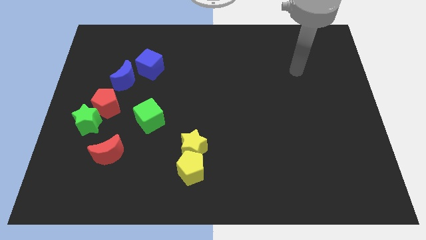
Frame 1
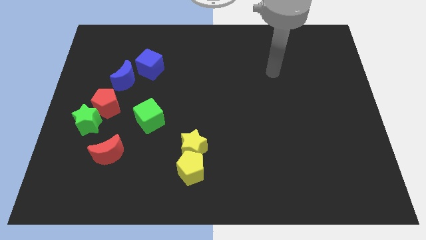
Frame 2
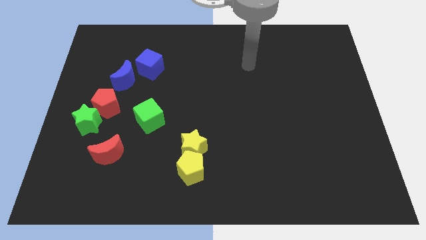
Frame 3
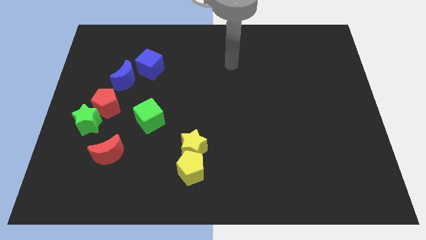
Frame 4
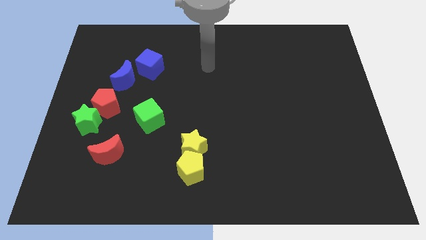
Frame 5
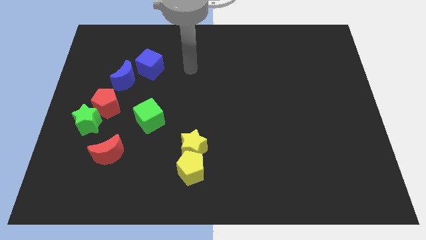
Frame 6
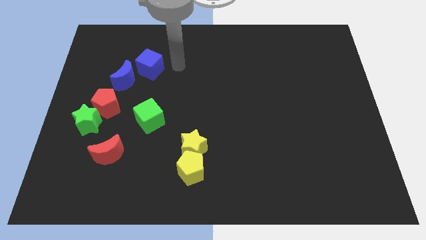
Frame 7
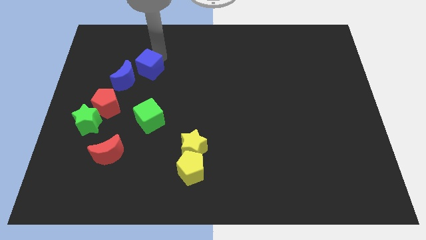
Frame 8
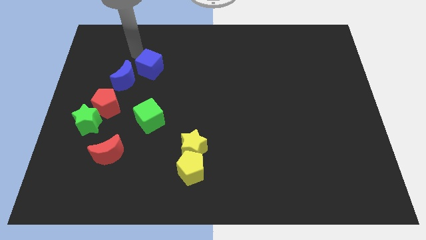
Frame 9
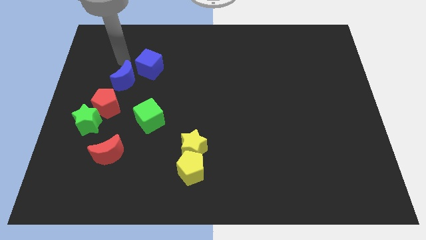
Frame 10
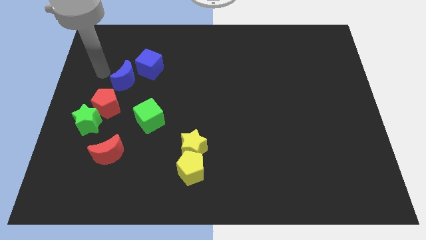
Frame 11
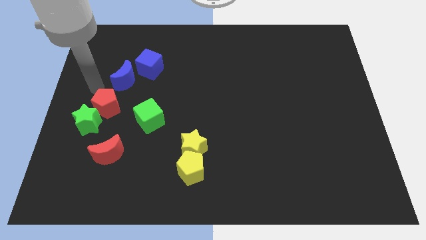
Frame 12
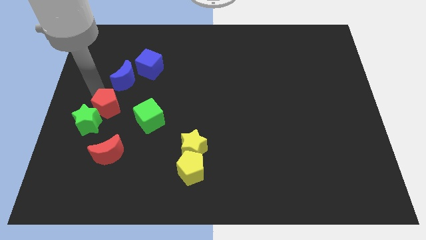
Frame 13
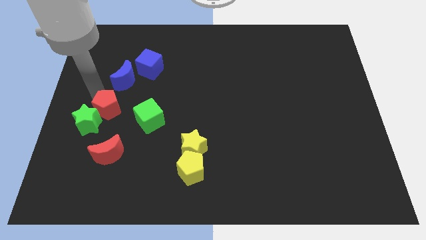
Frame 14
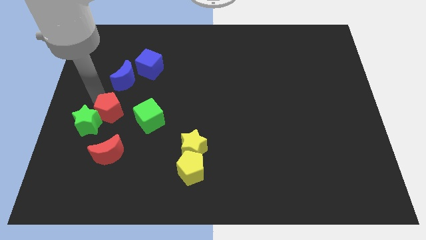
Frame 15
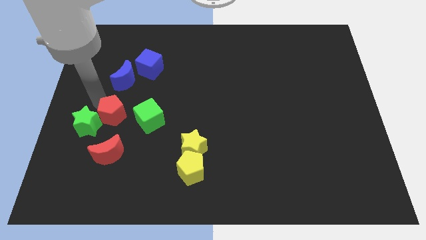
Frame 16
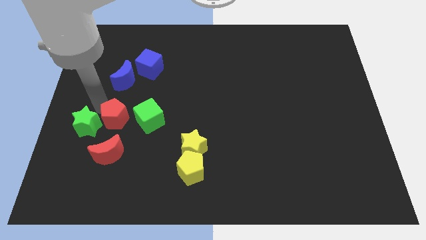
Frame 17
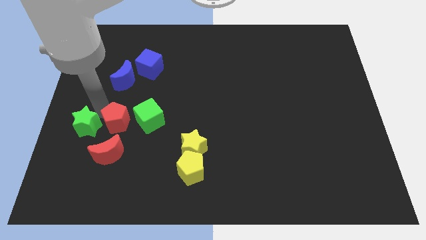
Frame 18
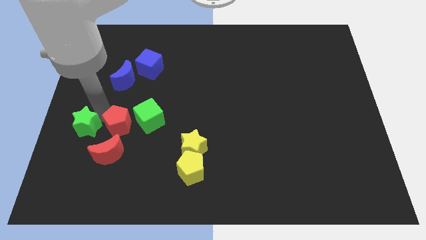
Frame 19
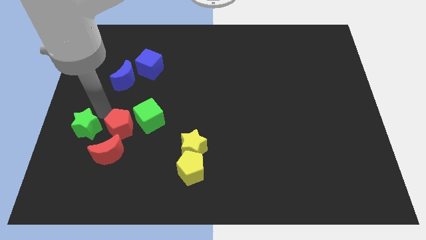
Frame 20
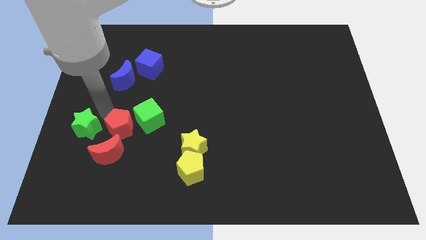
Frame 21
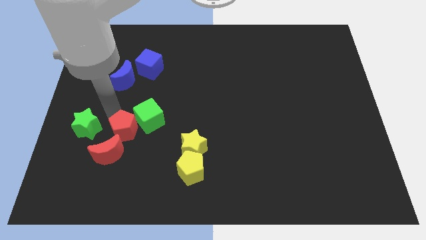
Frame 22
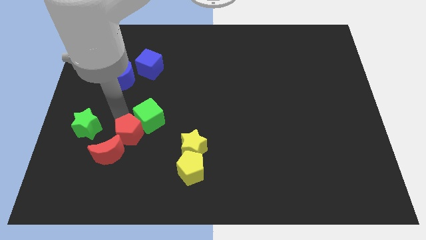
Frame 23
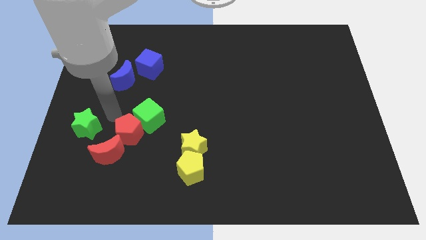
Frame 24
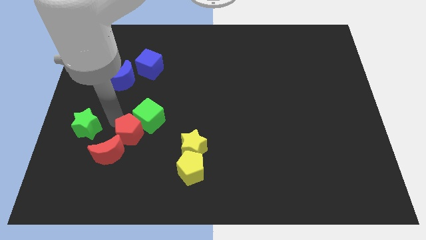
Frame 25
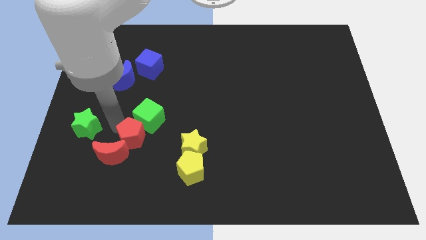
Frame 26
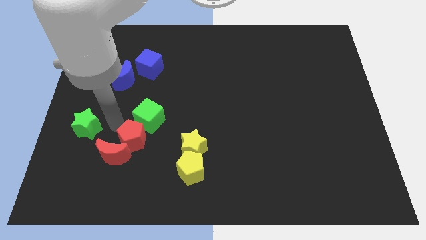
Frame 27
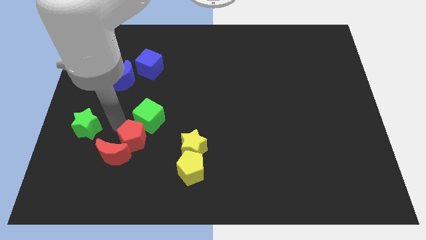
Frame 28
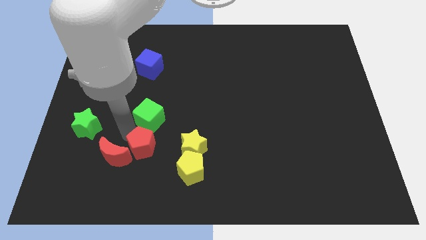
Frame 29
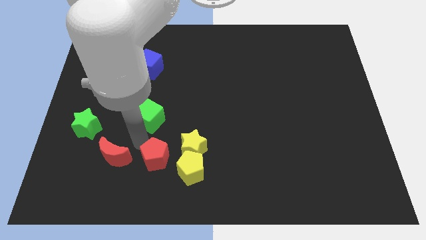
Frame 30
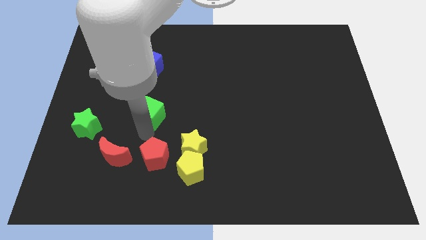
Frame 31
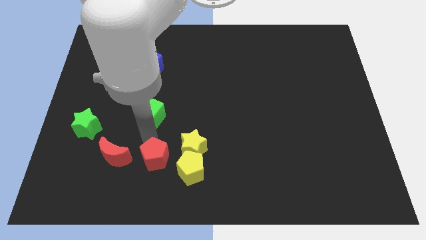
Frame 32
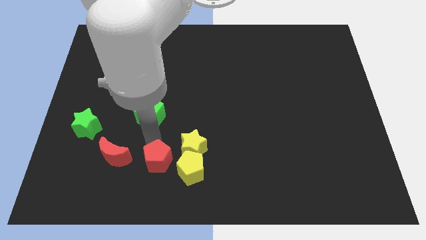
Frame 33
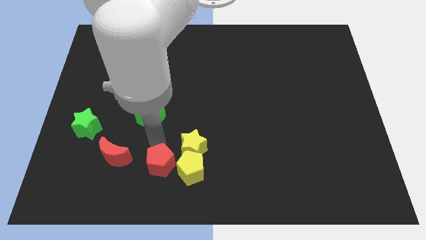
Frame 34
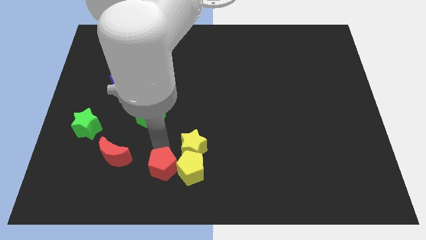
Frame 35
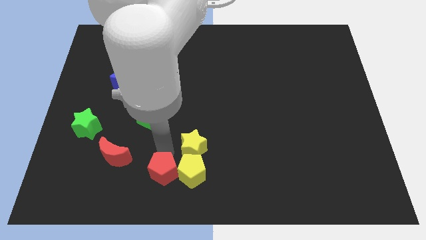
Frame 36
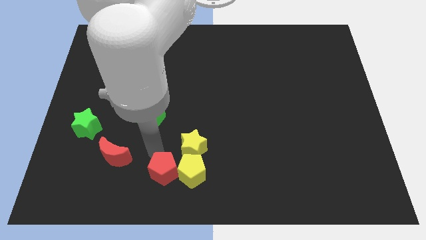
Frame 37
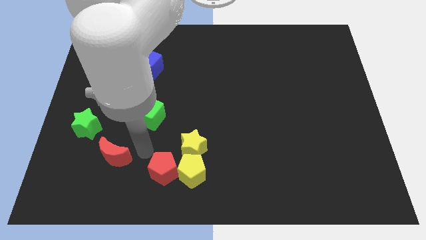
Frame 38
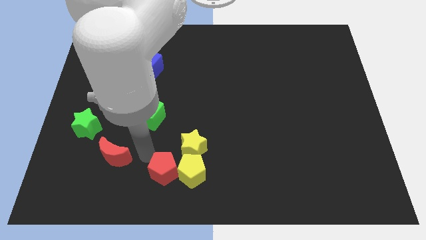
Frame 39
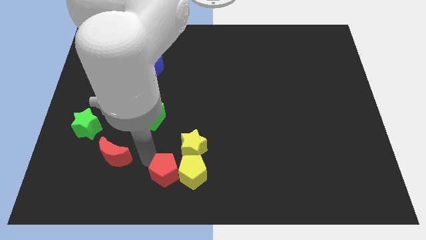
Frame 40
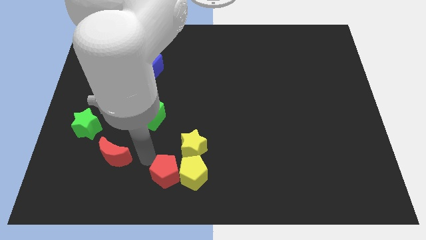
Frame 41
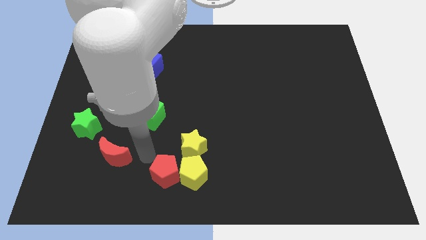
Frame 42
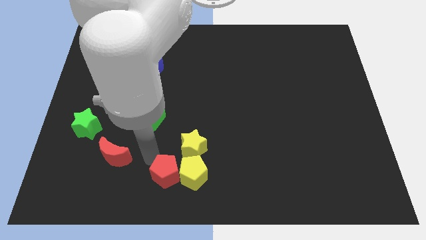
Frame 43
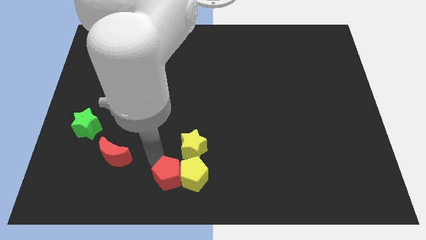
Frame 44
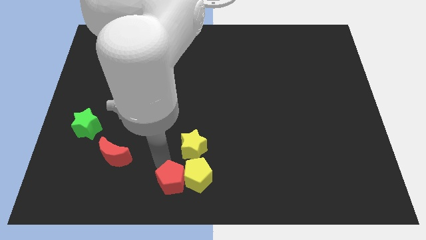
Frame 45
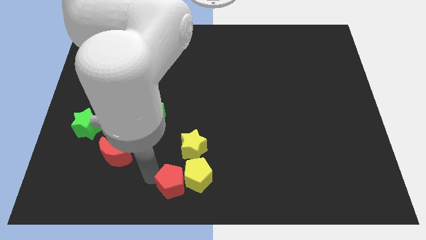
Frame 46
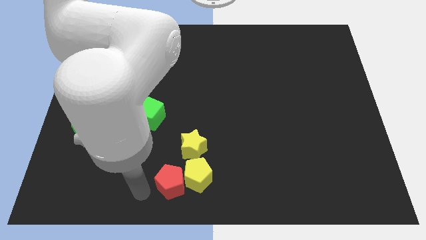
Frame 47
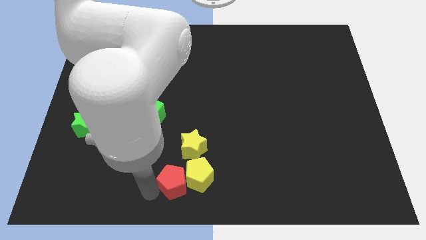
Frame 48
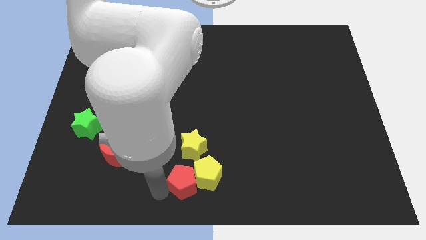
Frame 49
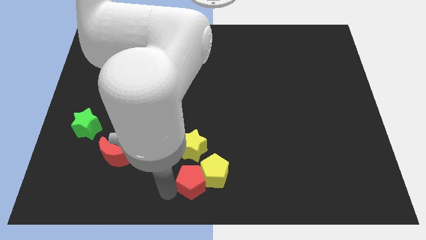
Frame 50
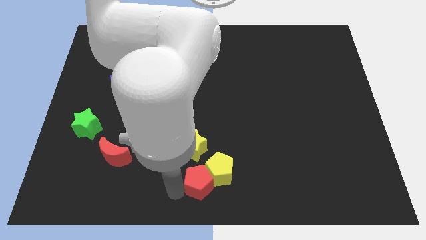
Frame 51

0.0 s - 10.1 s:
put the red pentagon diagonally down and to the right of the yellow star

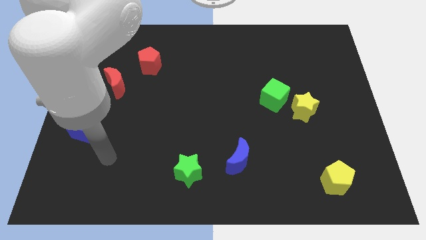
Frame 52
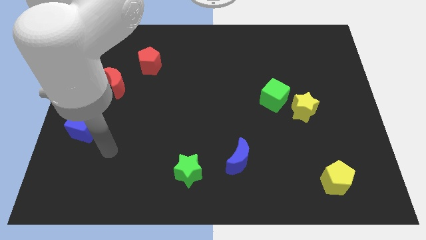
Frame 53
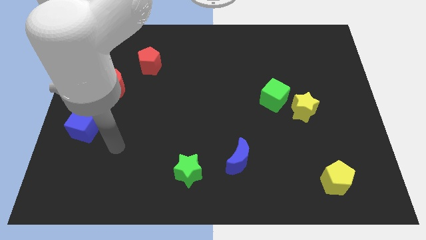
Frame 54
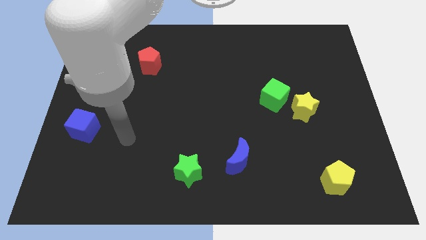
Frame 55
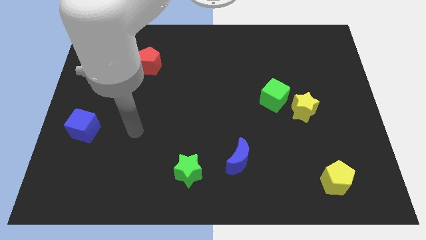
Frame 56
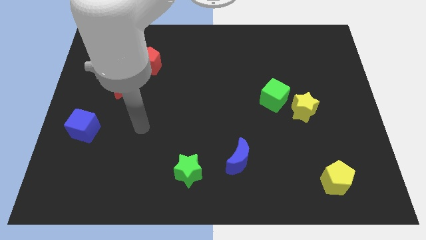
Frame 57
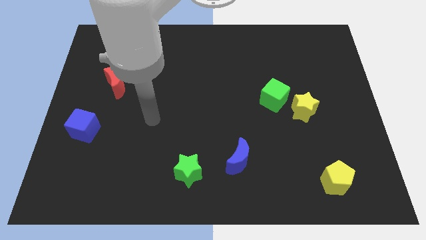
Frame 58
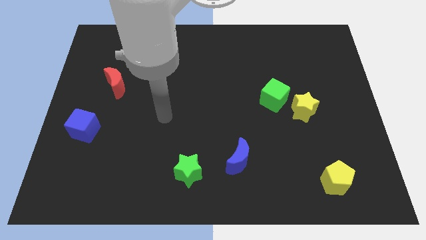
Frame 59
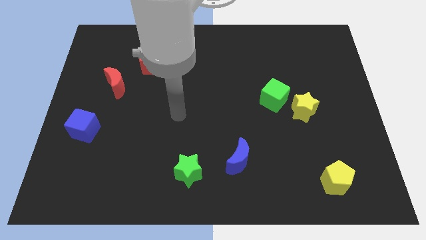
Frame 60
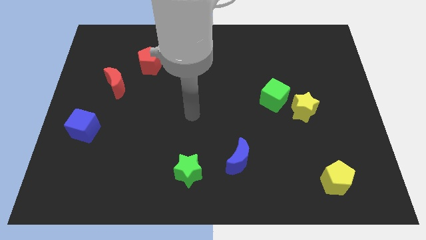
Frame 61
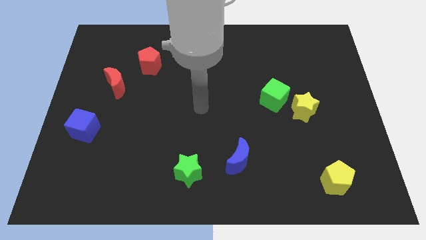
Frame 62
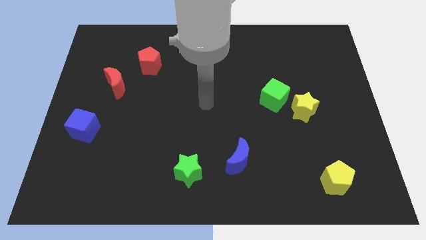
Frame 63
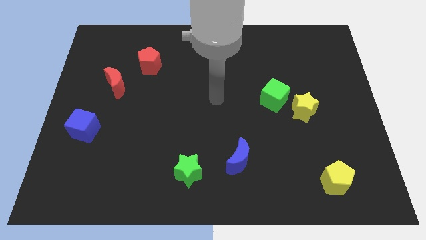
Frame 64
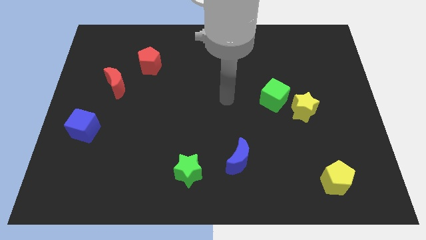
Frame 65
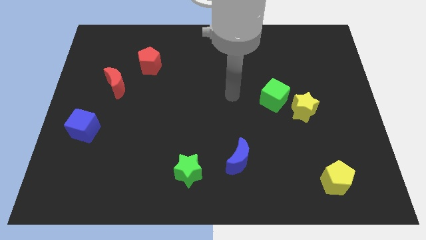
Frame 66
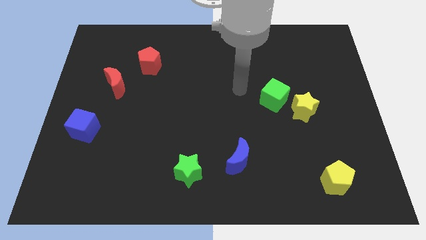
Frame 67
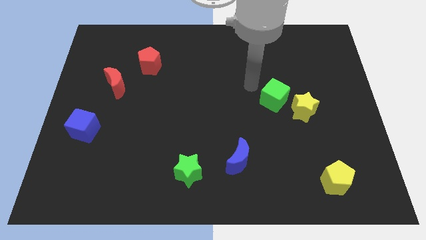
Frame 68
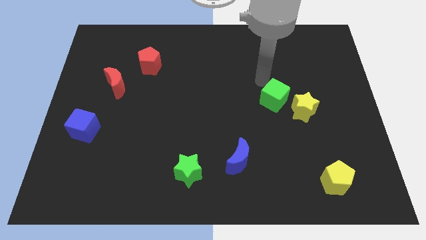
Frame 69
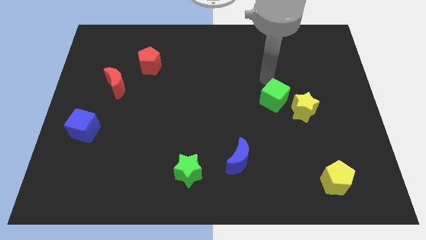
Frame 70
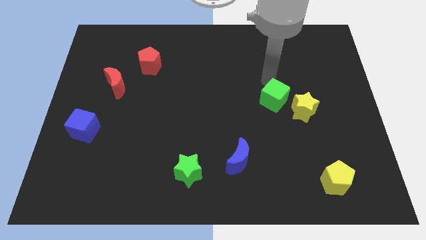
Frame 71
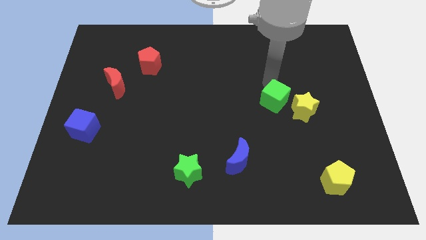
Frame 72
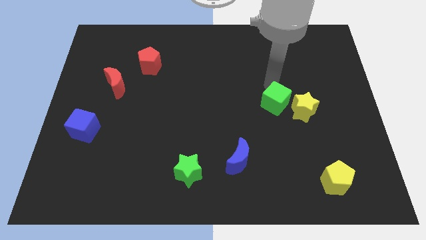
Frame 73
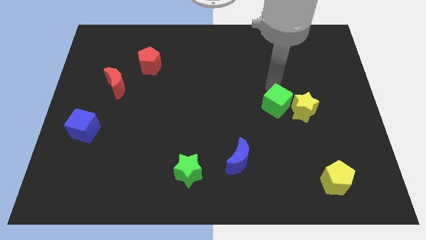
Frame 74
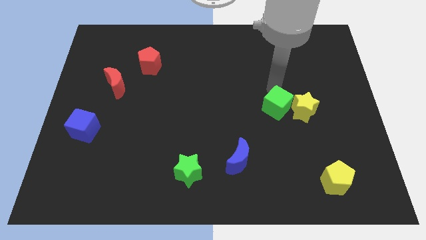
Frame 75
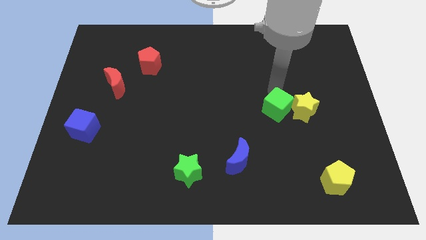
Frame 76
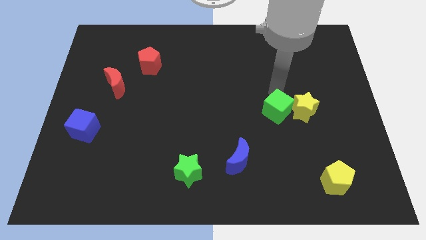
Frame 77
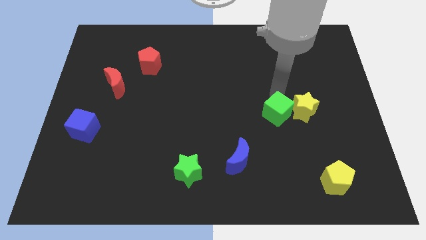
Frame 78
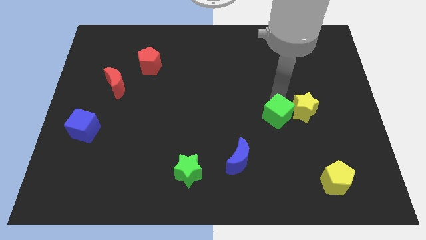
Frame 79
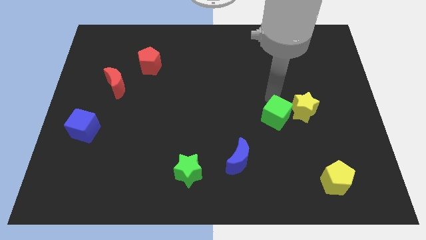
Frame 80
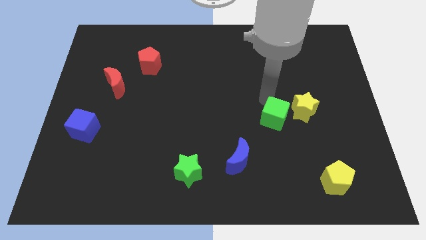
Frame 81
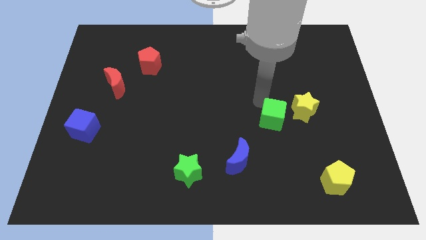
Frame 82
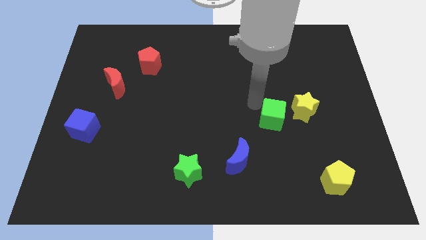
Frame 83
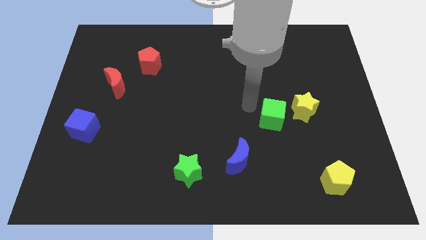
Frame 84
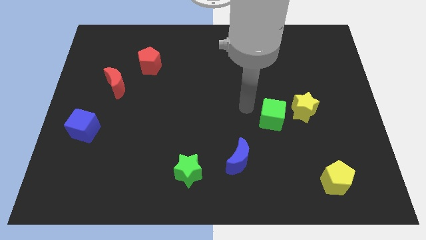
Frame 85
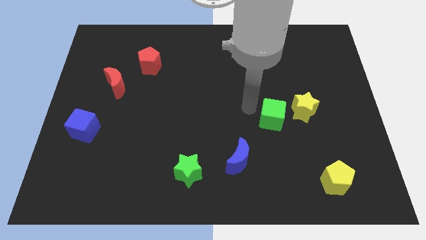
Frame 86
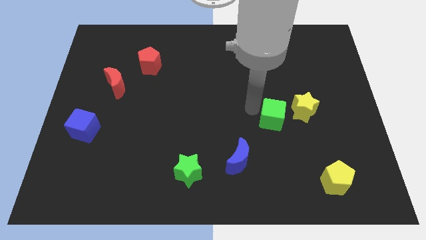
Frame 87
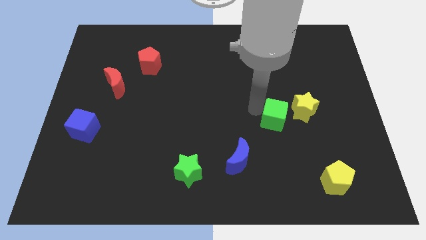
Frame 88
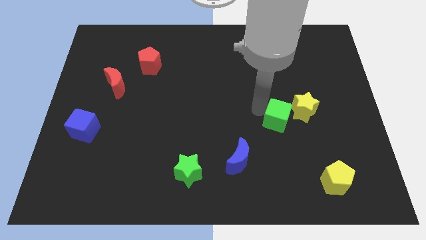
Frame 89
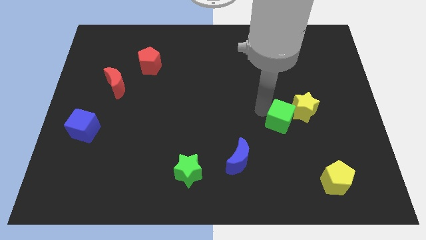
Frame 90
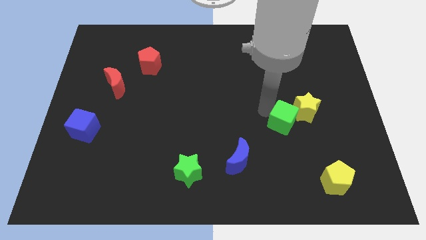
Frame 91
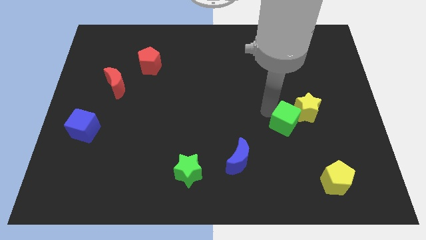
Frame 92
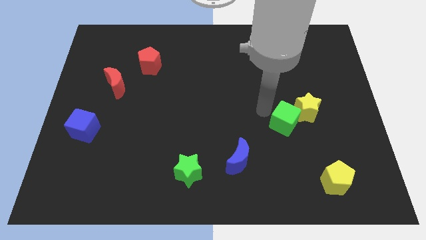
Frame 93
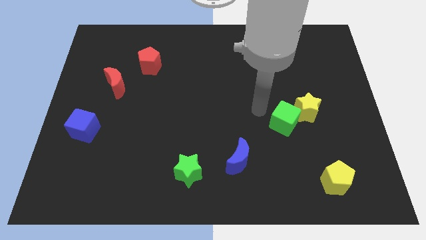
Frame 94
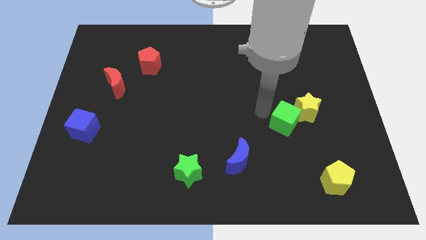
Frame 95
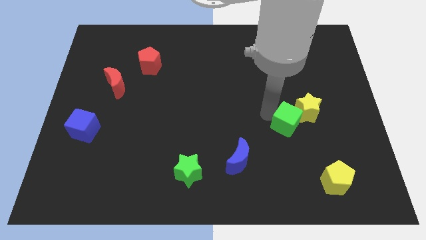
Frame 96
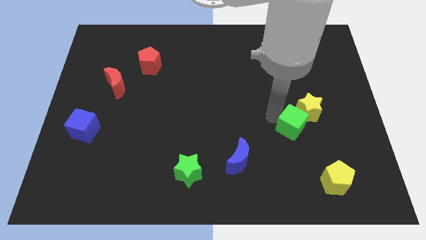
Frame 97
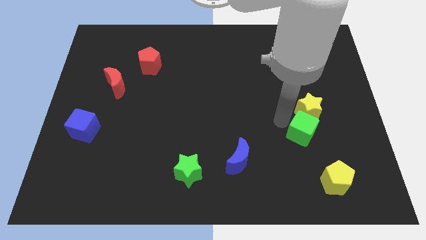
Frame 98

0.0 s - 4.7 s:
slide the green cube above the yellow pentagon
